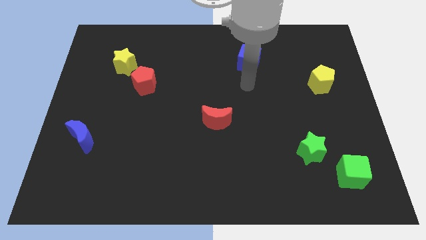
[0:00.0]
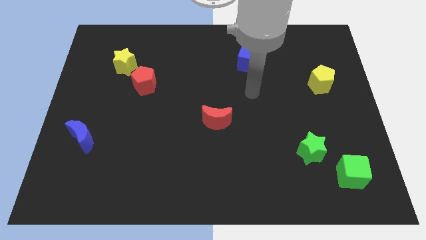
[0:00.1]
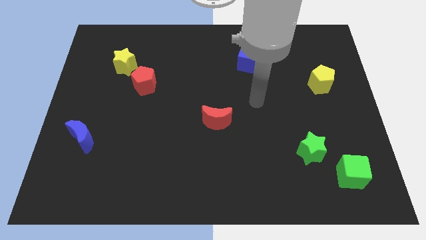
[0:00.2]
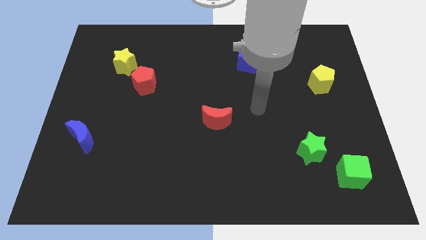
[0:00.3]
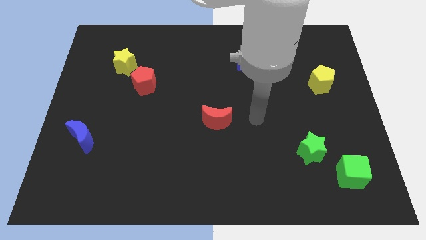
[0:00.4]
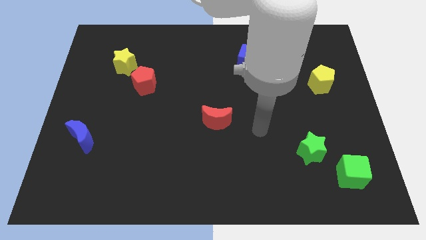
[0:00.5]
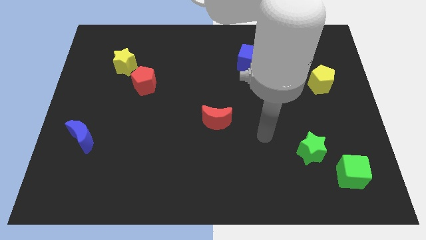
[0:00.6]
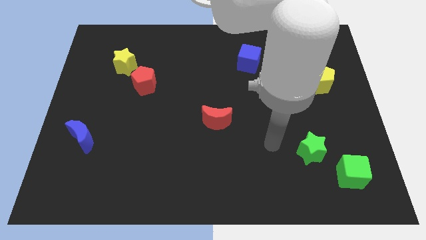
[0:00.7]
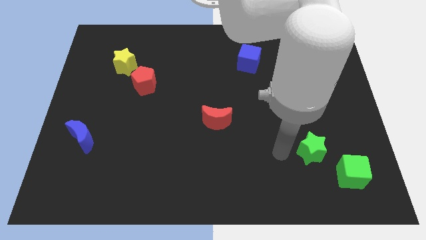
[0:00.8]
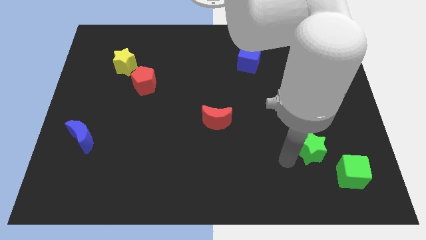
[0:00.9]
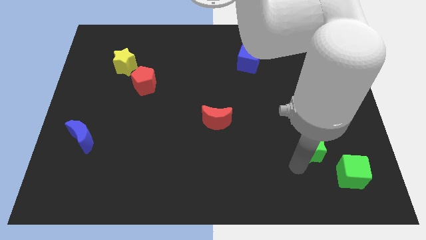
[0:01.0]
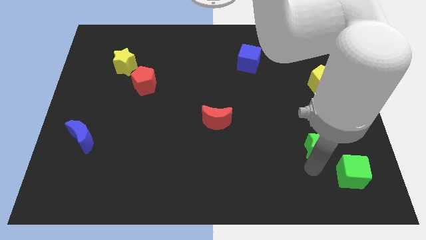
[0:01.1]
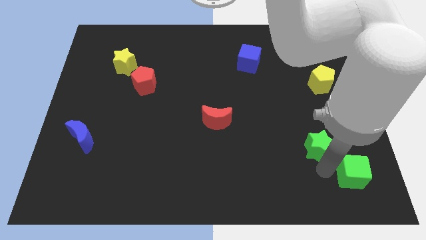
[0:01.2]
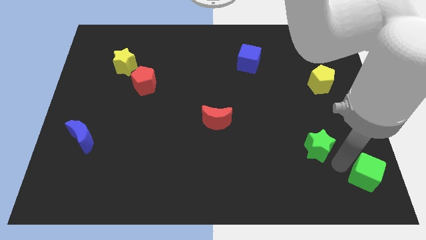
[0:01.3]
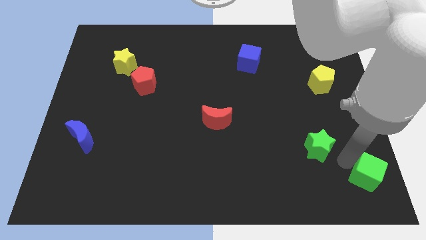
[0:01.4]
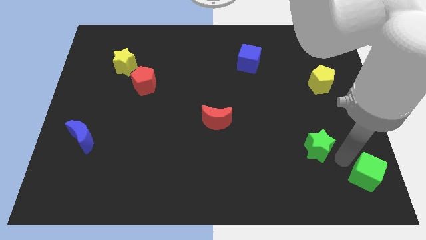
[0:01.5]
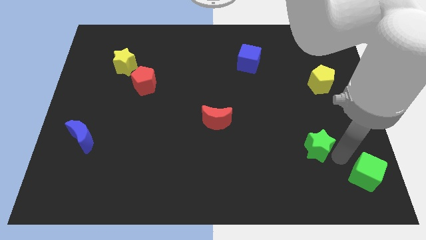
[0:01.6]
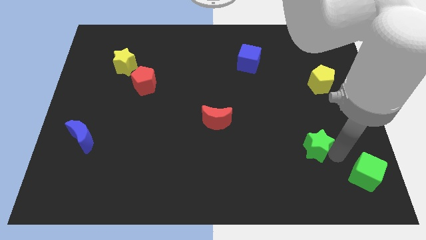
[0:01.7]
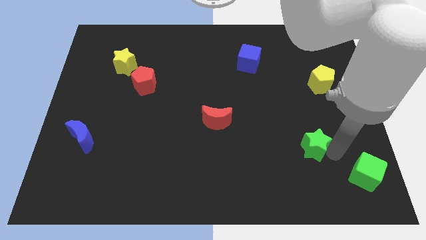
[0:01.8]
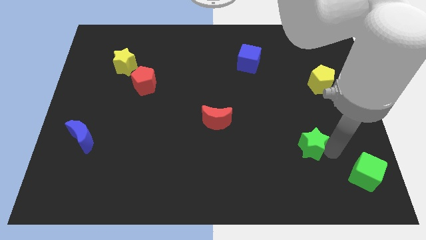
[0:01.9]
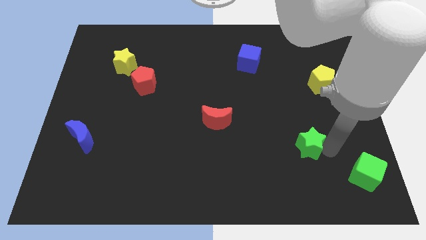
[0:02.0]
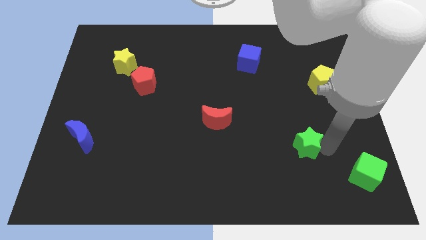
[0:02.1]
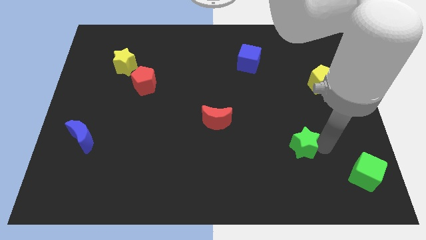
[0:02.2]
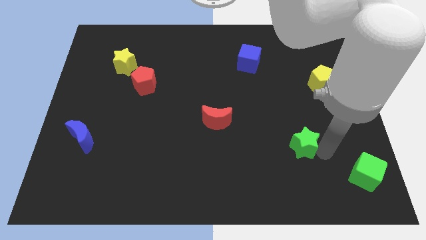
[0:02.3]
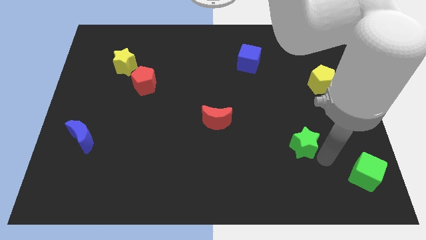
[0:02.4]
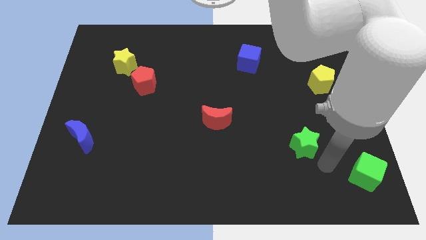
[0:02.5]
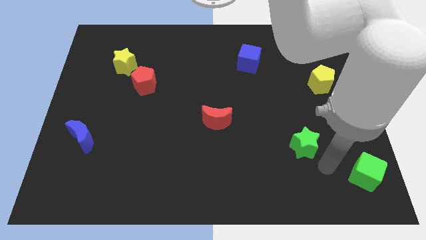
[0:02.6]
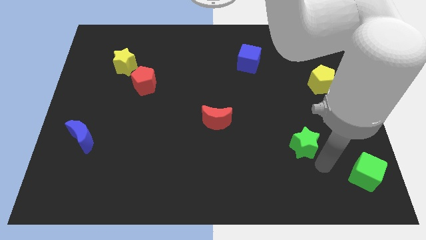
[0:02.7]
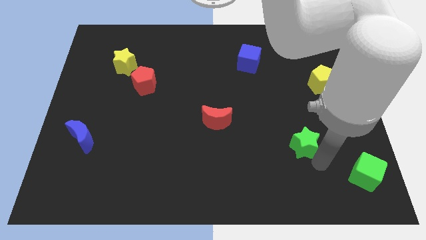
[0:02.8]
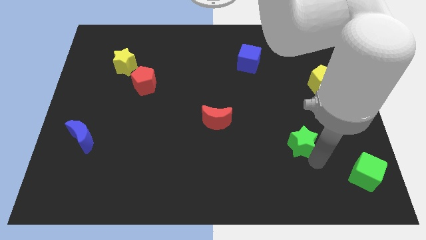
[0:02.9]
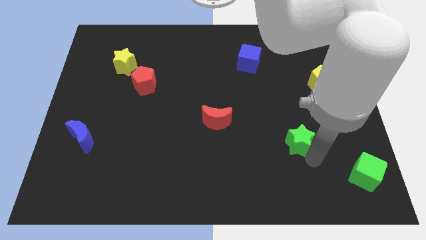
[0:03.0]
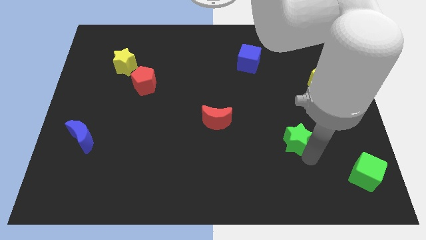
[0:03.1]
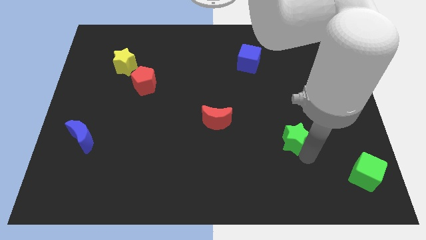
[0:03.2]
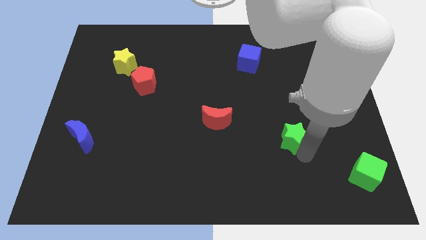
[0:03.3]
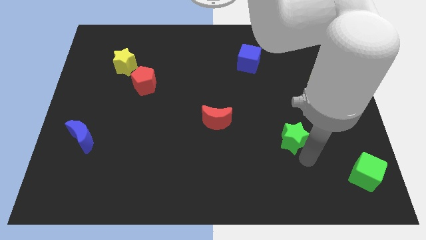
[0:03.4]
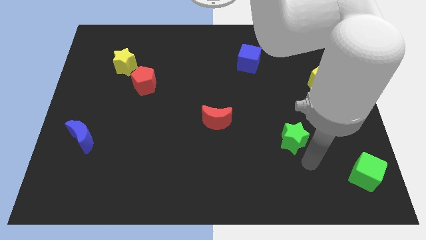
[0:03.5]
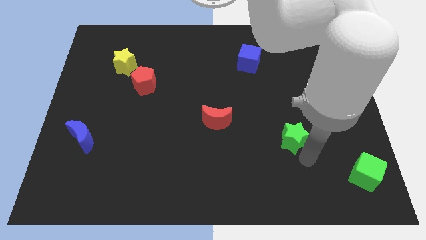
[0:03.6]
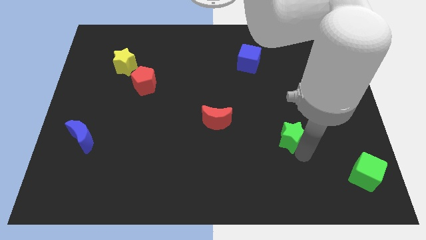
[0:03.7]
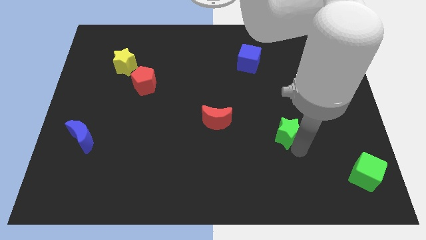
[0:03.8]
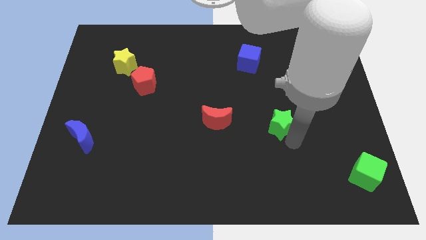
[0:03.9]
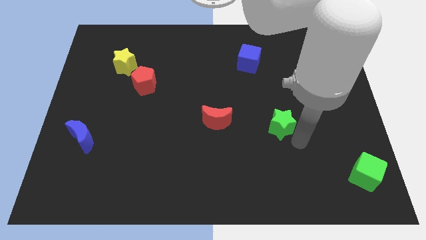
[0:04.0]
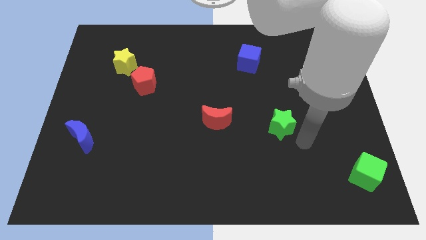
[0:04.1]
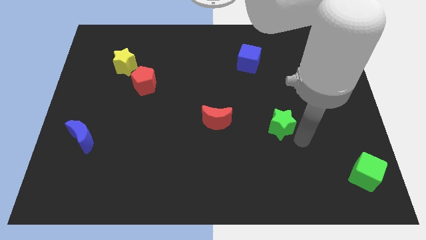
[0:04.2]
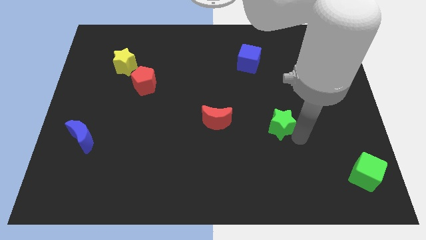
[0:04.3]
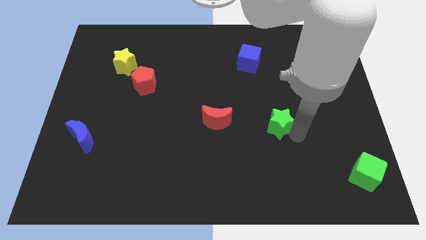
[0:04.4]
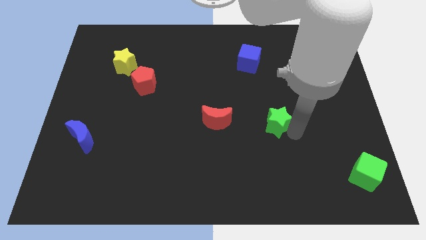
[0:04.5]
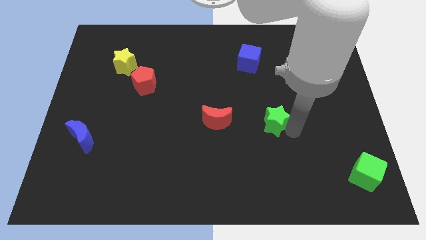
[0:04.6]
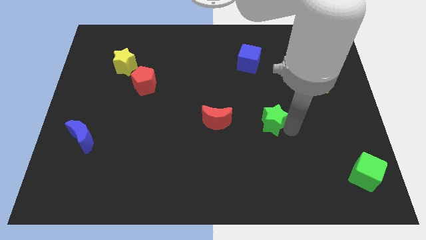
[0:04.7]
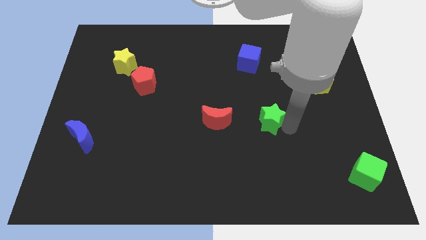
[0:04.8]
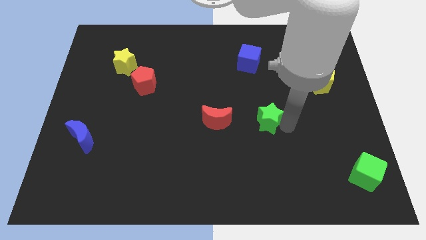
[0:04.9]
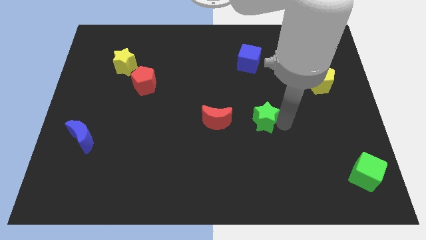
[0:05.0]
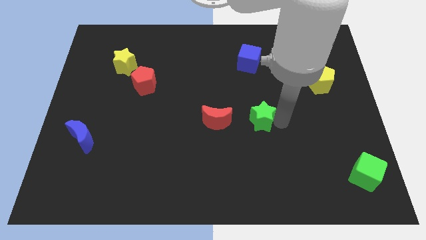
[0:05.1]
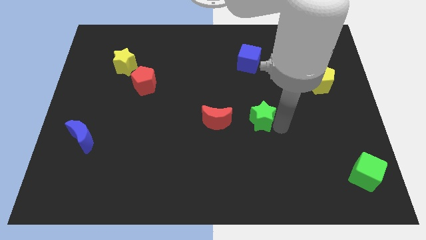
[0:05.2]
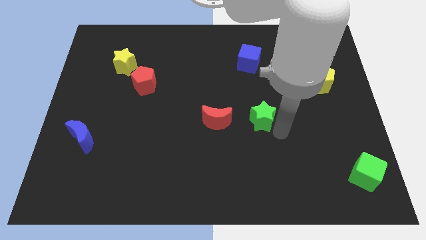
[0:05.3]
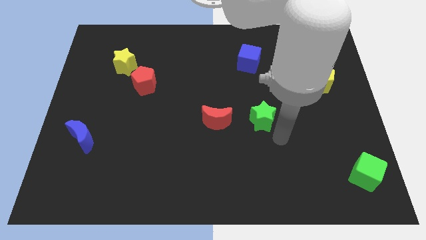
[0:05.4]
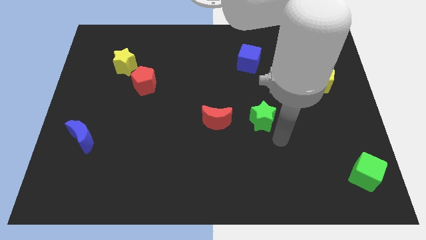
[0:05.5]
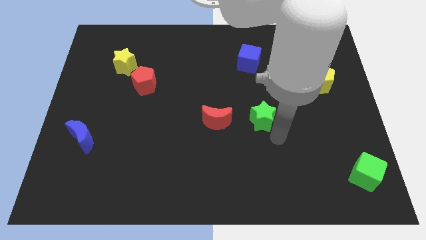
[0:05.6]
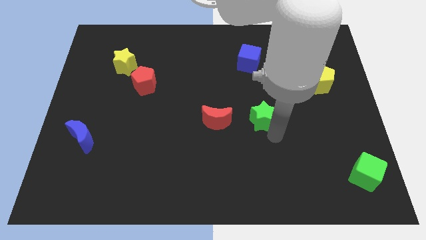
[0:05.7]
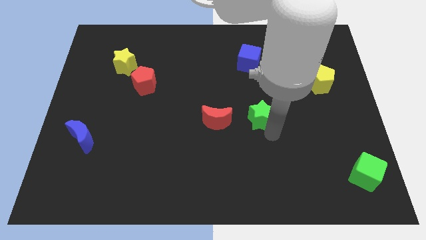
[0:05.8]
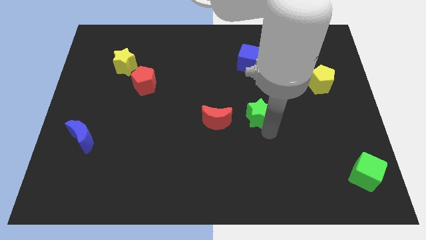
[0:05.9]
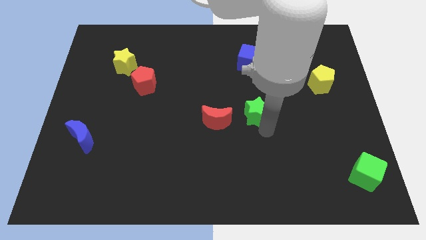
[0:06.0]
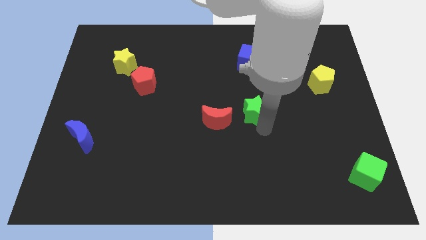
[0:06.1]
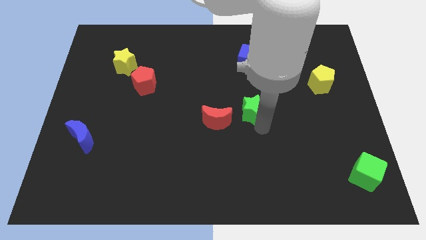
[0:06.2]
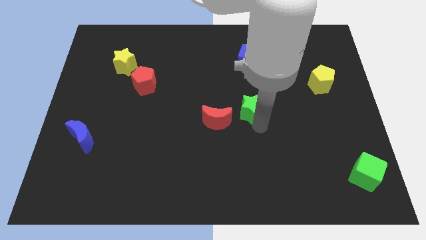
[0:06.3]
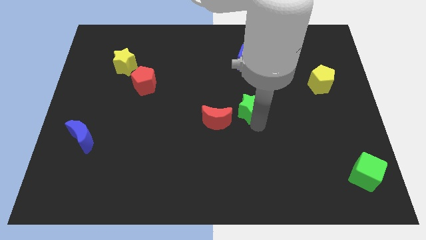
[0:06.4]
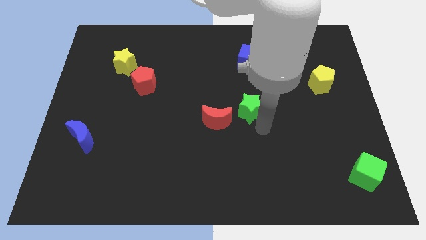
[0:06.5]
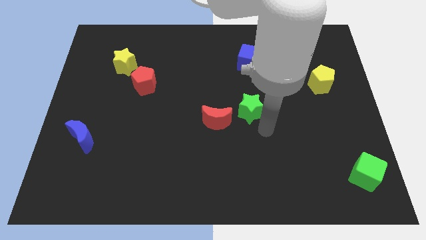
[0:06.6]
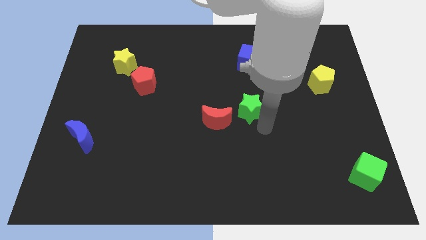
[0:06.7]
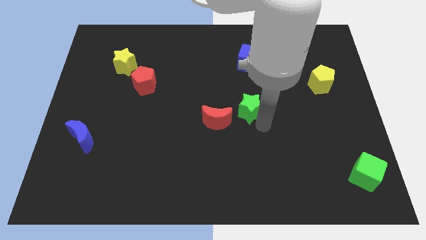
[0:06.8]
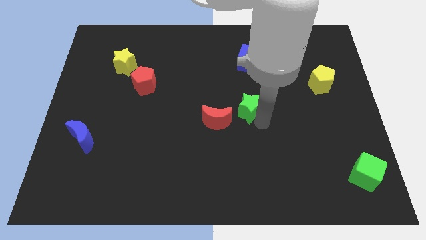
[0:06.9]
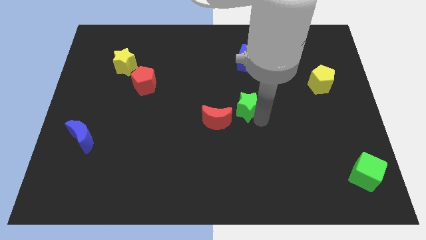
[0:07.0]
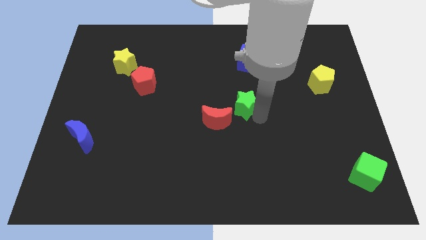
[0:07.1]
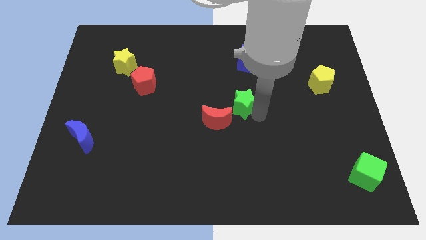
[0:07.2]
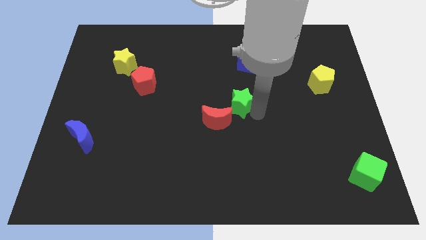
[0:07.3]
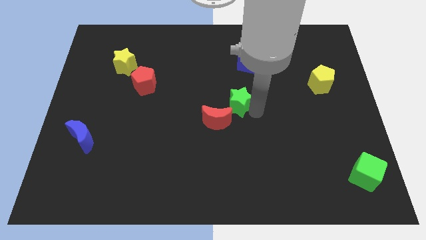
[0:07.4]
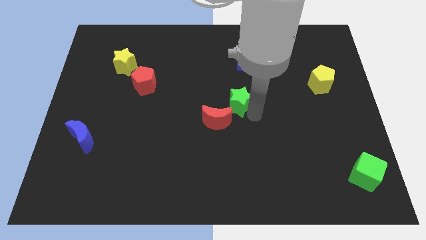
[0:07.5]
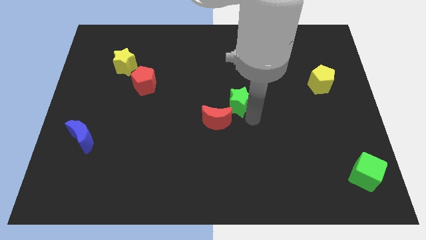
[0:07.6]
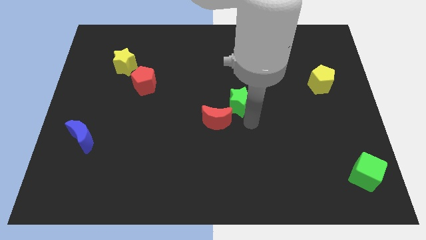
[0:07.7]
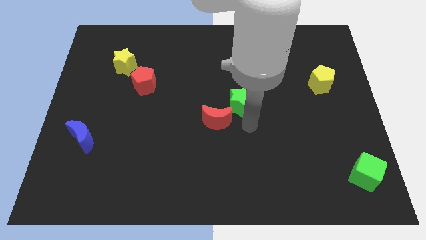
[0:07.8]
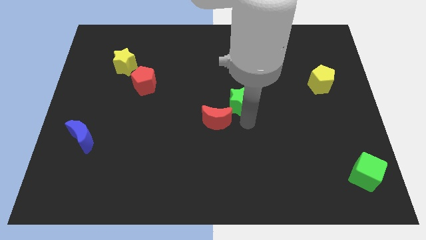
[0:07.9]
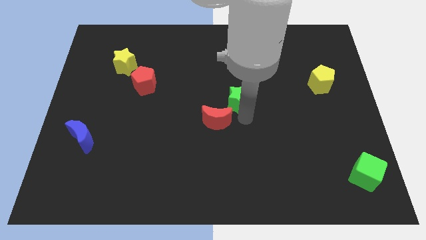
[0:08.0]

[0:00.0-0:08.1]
push the green star diagonally upwards and left
